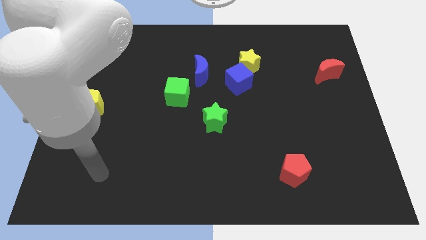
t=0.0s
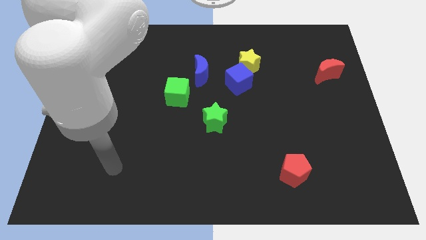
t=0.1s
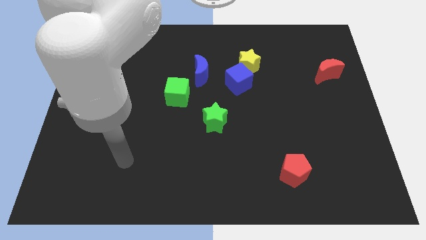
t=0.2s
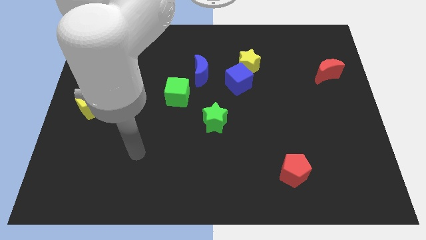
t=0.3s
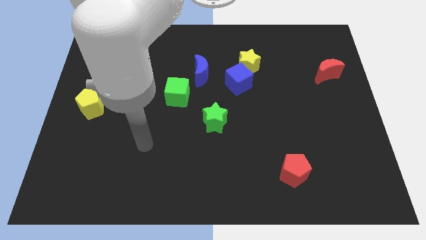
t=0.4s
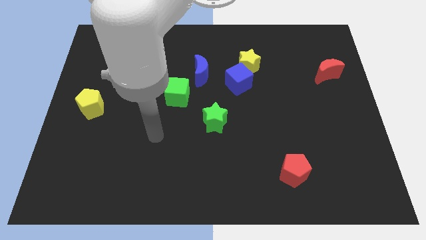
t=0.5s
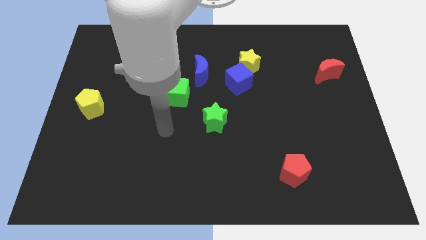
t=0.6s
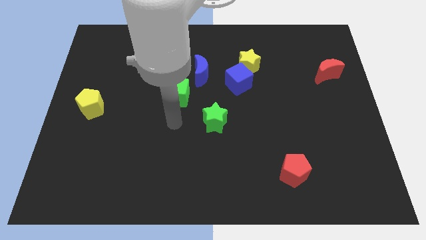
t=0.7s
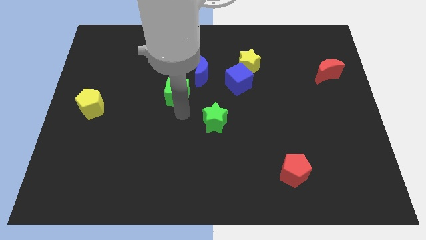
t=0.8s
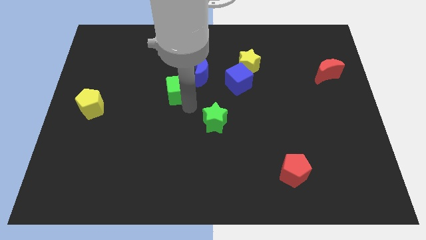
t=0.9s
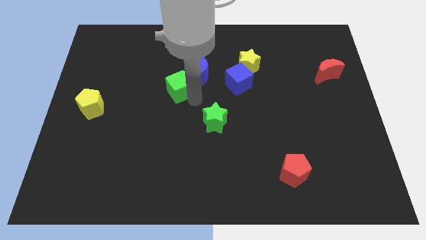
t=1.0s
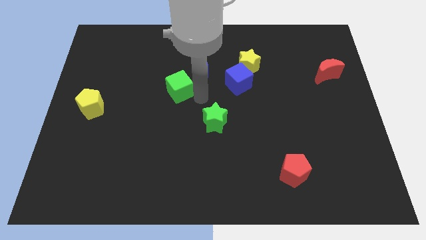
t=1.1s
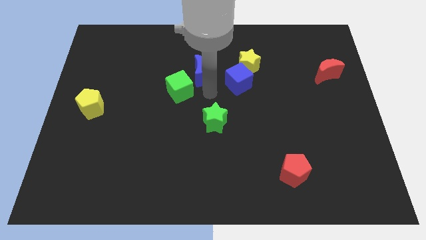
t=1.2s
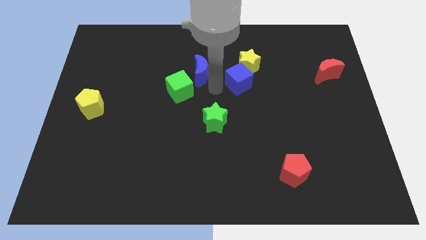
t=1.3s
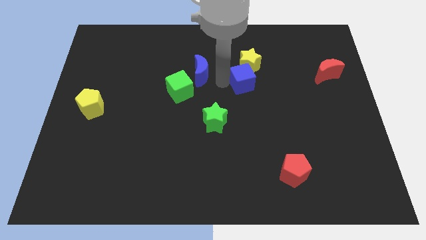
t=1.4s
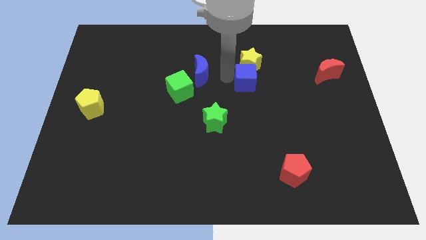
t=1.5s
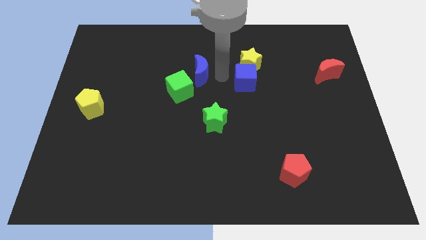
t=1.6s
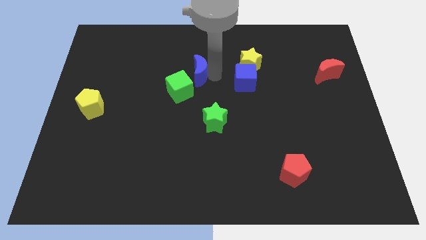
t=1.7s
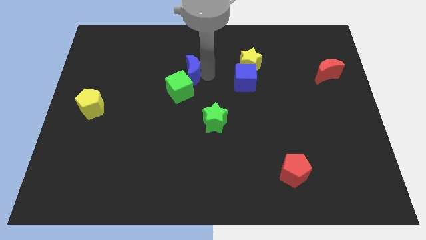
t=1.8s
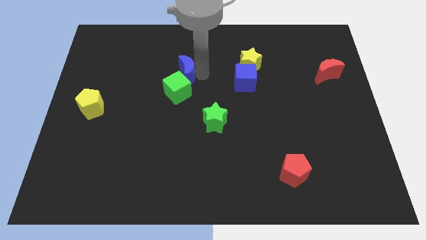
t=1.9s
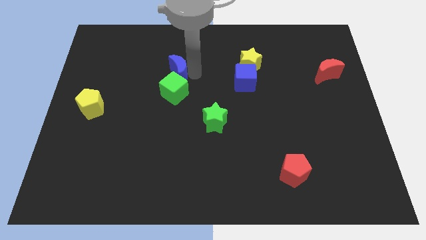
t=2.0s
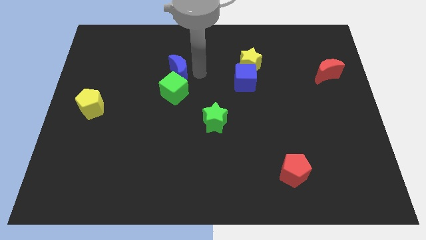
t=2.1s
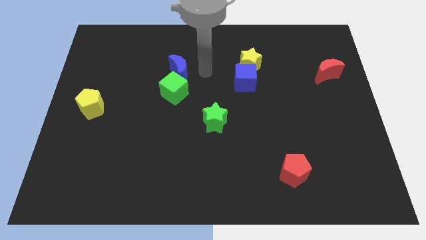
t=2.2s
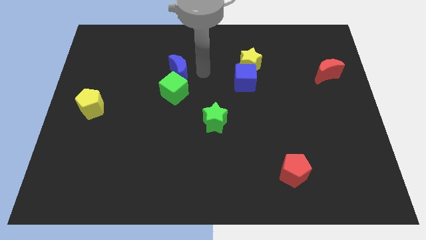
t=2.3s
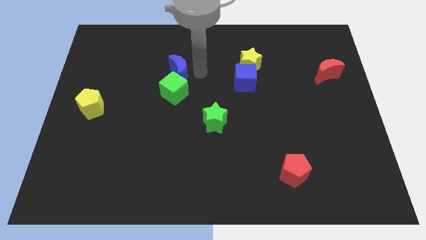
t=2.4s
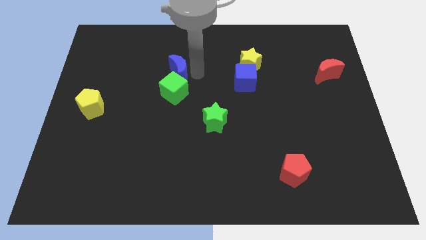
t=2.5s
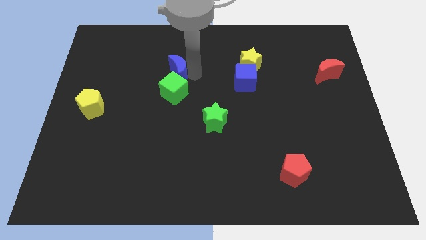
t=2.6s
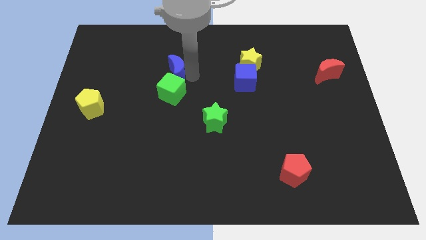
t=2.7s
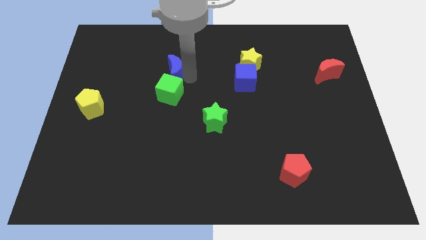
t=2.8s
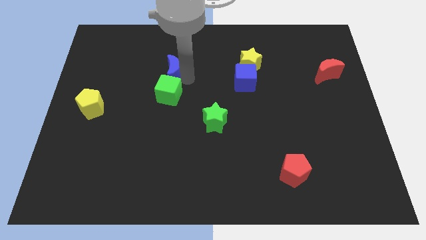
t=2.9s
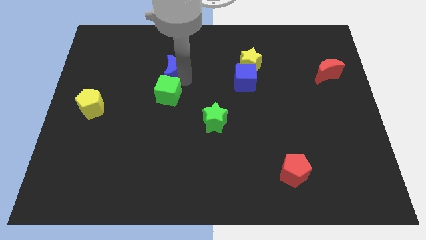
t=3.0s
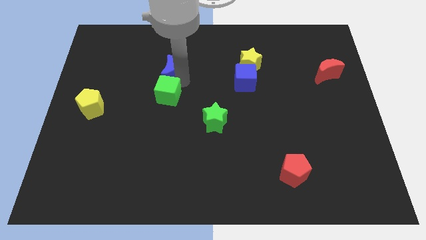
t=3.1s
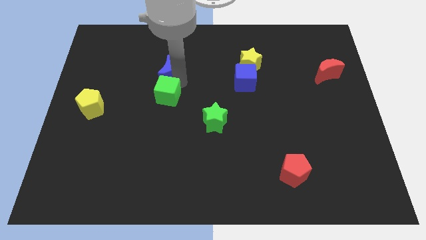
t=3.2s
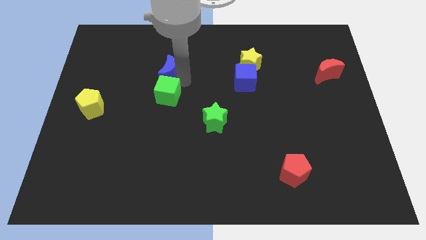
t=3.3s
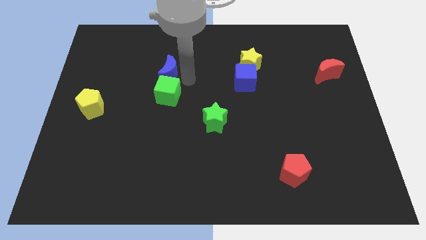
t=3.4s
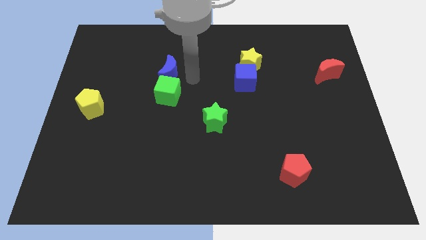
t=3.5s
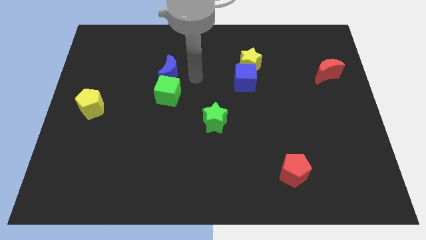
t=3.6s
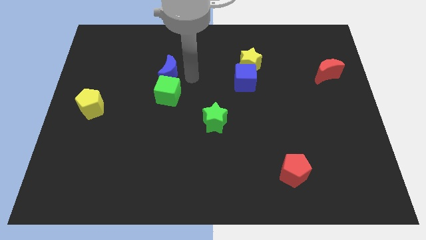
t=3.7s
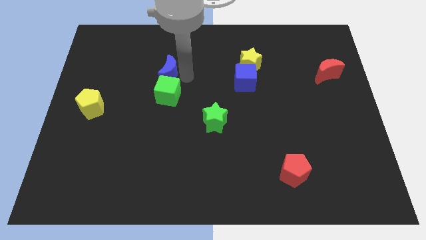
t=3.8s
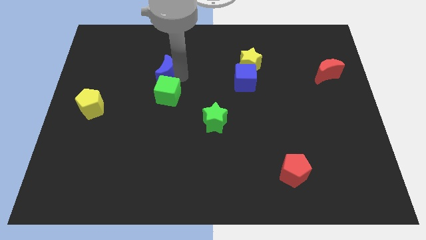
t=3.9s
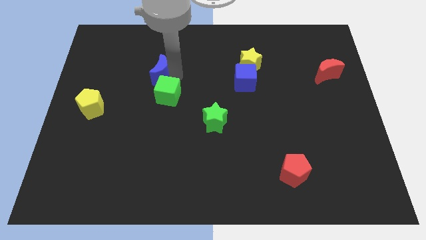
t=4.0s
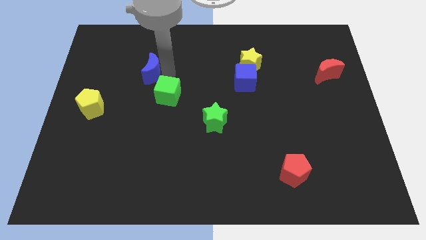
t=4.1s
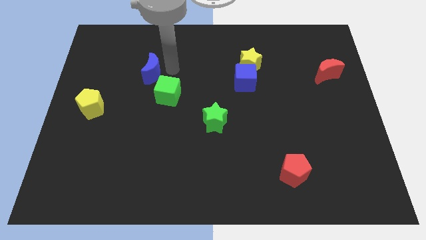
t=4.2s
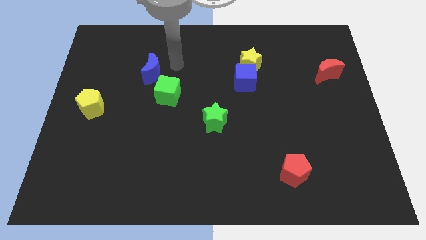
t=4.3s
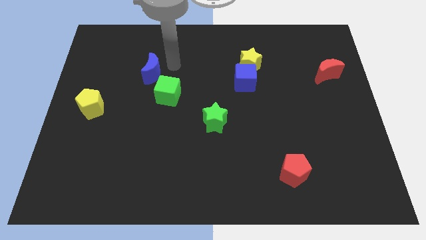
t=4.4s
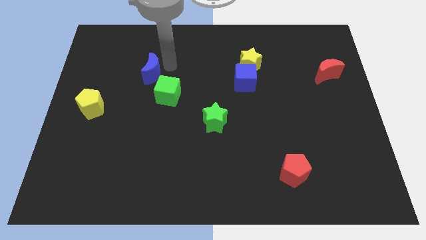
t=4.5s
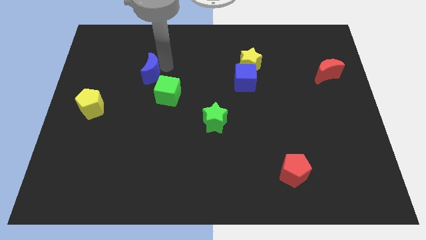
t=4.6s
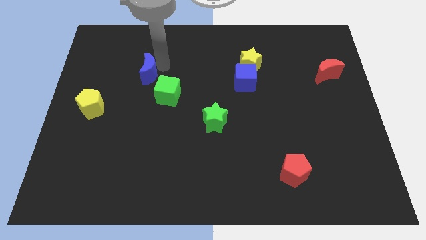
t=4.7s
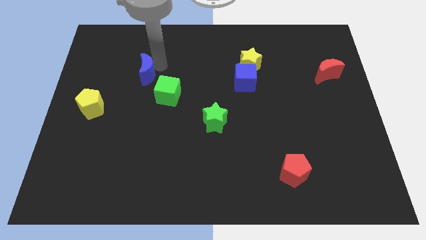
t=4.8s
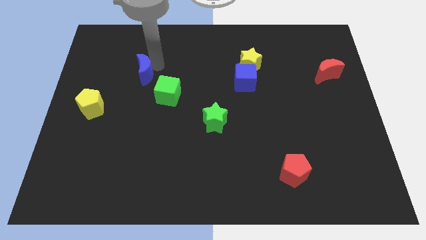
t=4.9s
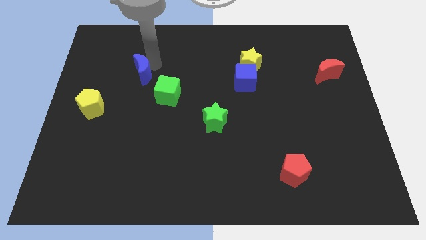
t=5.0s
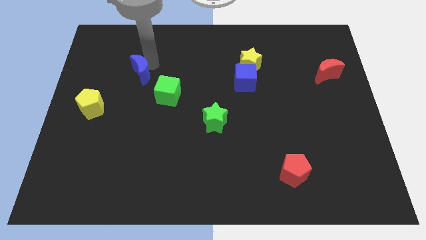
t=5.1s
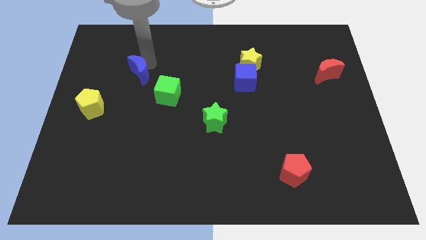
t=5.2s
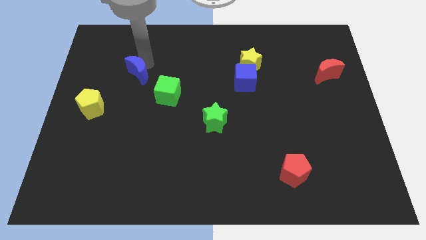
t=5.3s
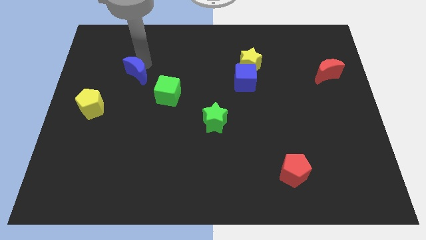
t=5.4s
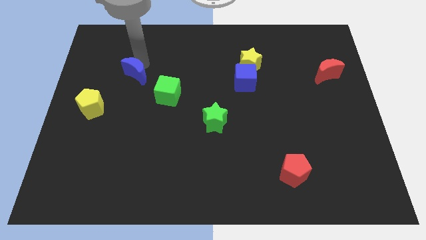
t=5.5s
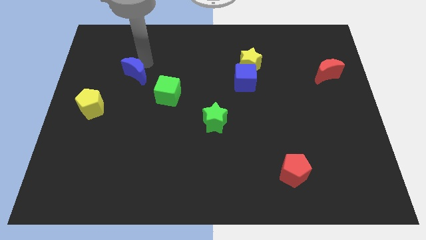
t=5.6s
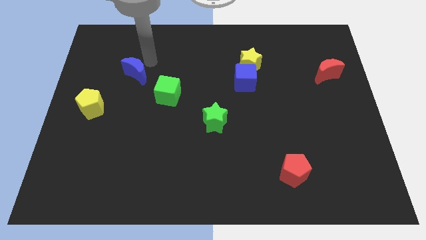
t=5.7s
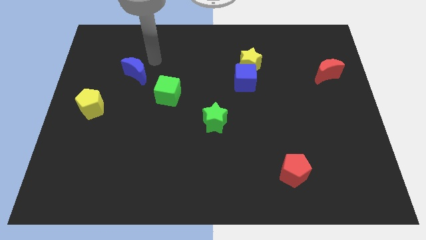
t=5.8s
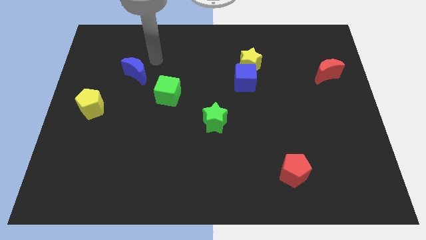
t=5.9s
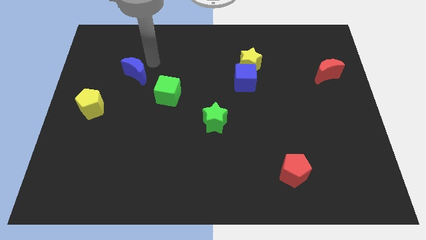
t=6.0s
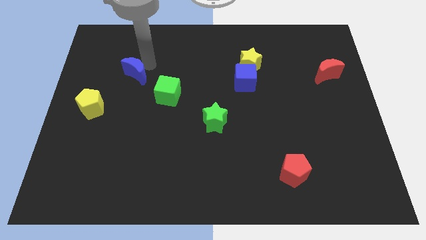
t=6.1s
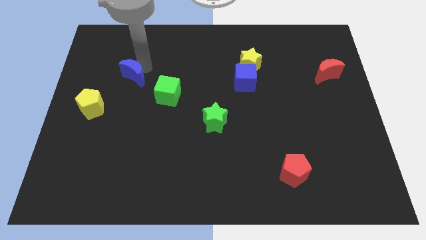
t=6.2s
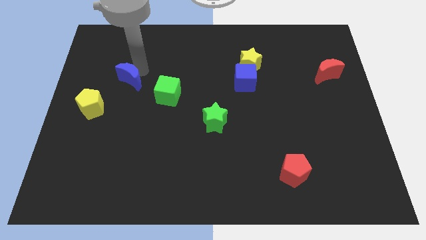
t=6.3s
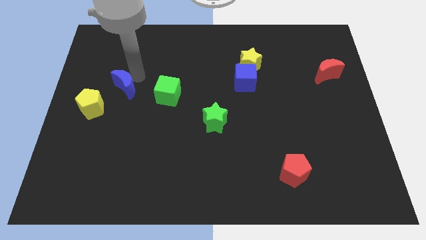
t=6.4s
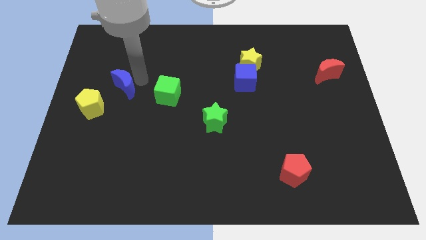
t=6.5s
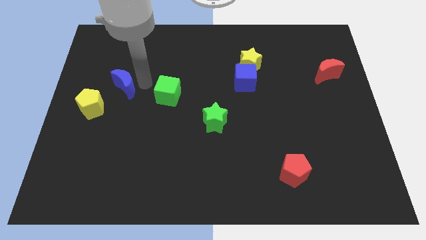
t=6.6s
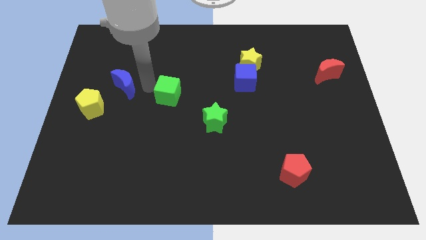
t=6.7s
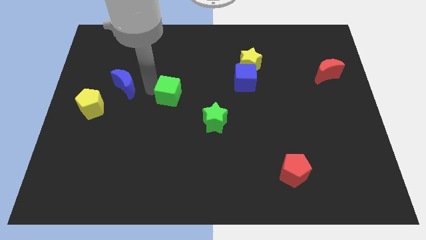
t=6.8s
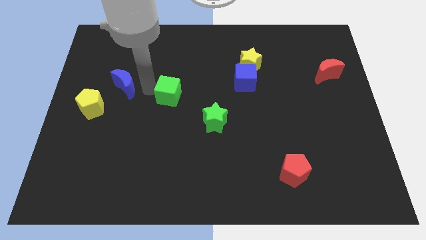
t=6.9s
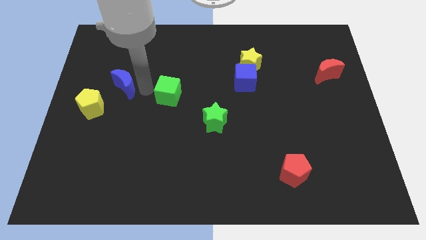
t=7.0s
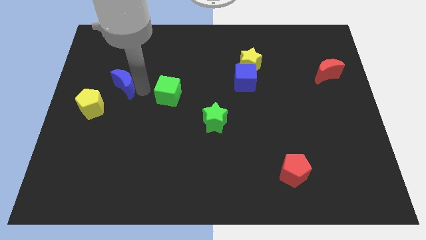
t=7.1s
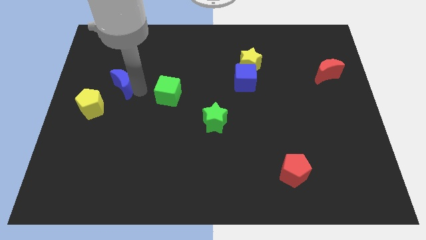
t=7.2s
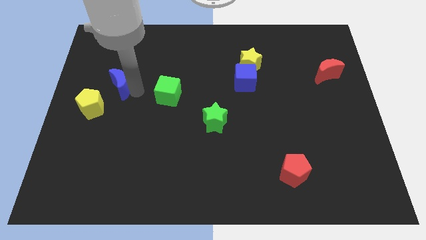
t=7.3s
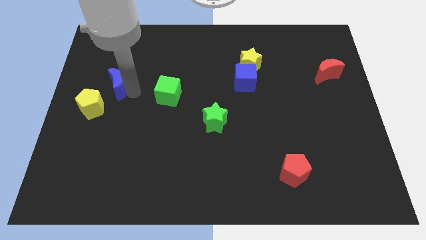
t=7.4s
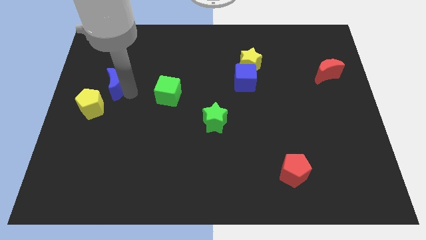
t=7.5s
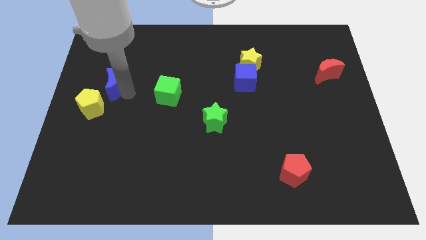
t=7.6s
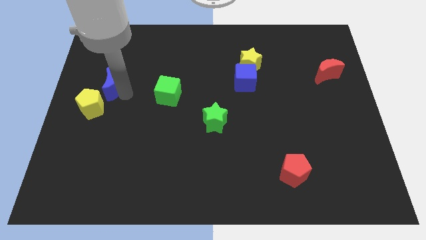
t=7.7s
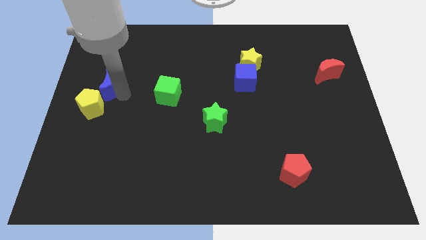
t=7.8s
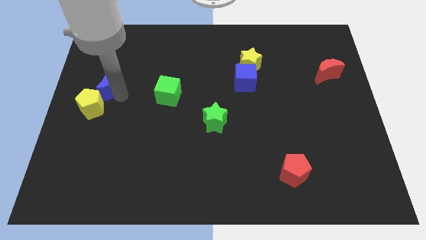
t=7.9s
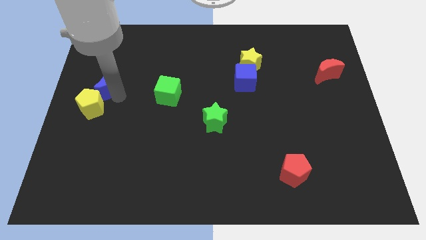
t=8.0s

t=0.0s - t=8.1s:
move the blue moon to the center left
